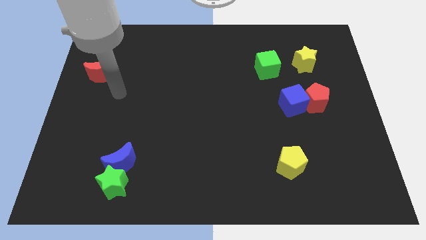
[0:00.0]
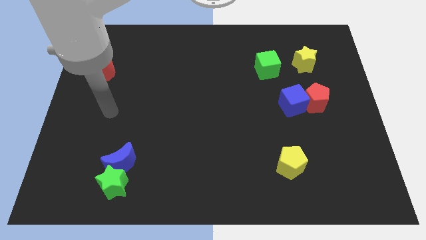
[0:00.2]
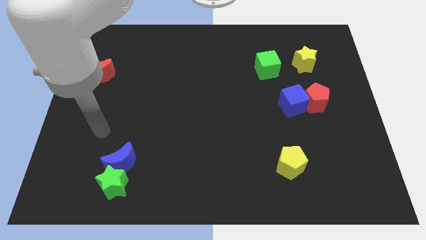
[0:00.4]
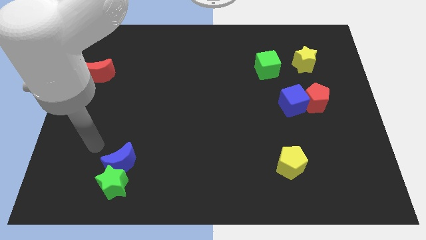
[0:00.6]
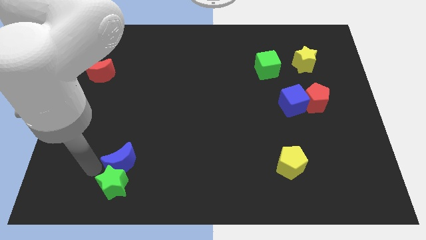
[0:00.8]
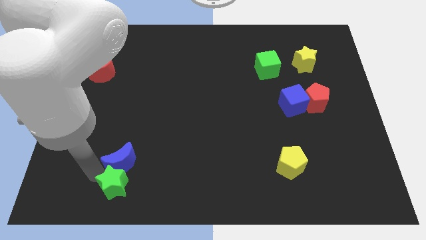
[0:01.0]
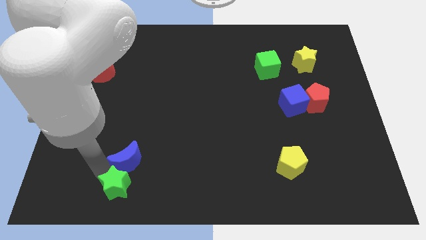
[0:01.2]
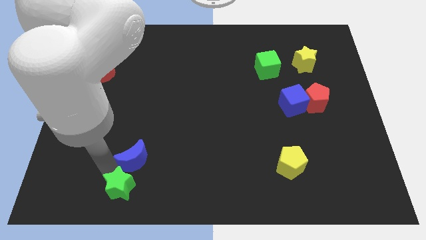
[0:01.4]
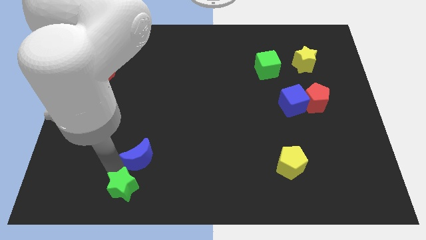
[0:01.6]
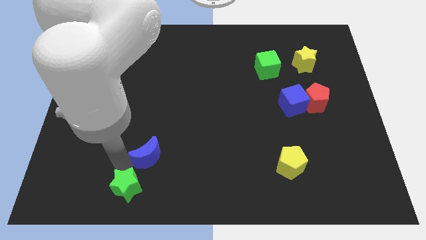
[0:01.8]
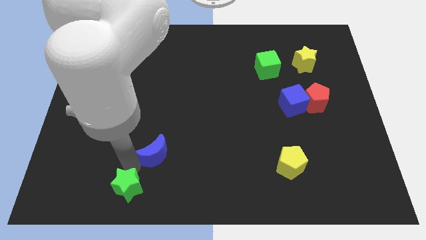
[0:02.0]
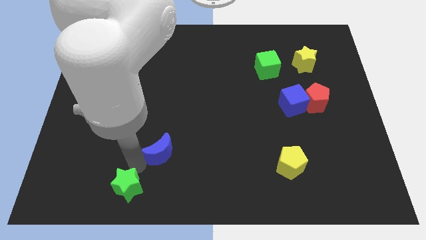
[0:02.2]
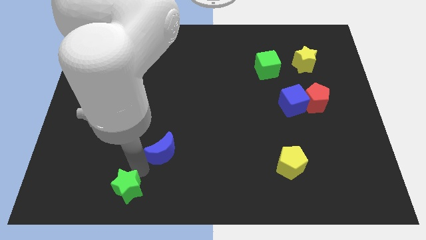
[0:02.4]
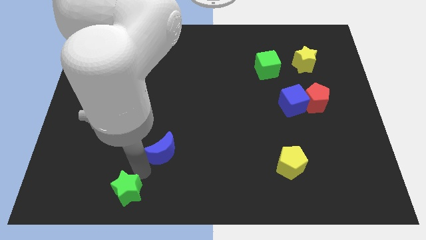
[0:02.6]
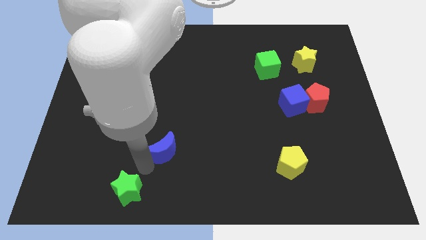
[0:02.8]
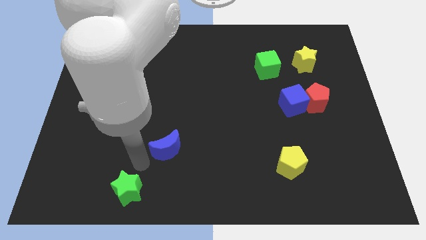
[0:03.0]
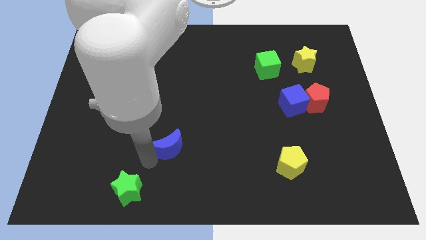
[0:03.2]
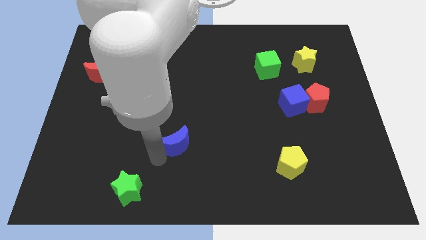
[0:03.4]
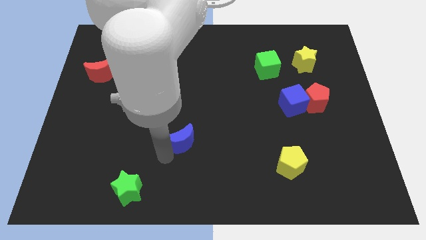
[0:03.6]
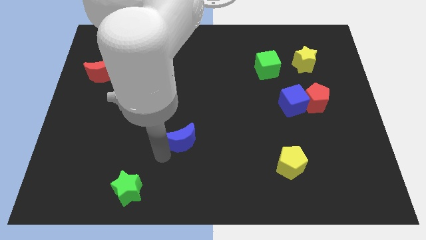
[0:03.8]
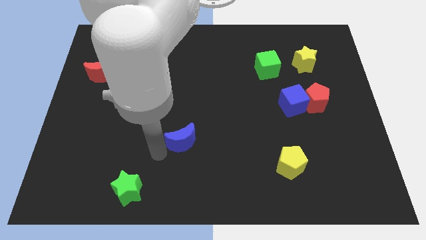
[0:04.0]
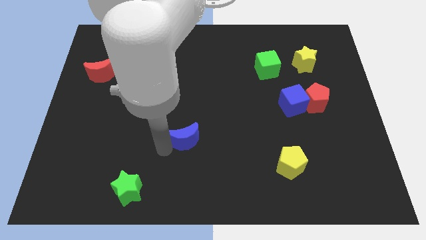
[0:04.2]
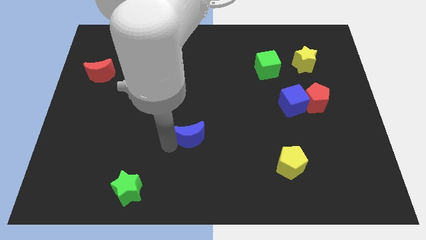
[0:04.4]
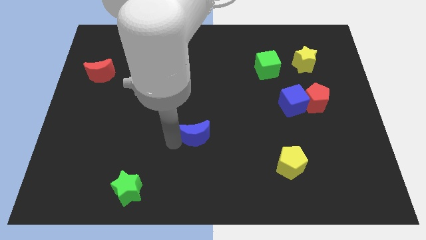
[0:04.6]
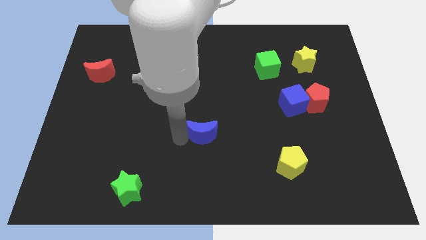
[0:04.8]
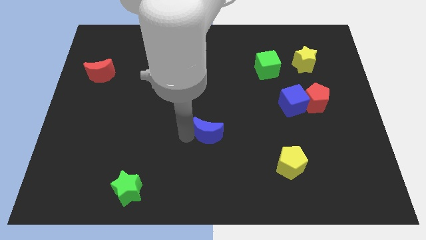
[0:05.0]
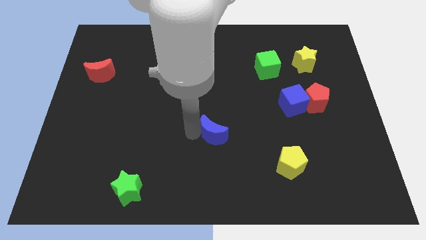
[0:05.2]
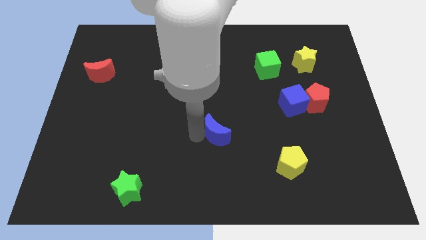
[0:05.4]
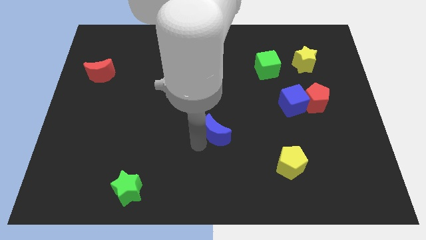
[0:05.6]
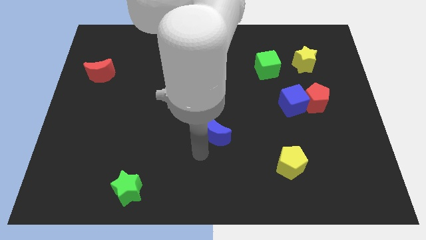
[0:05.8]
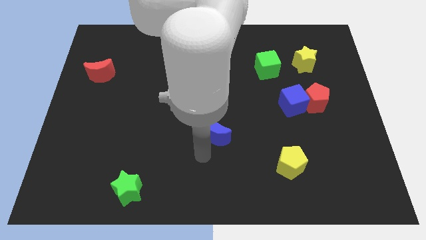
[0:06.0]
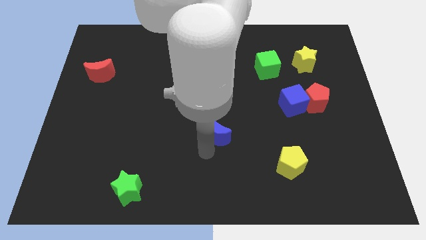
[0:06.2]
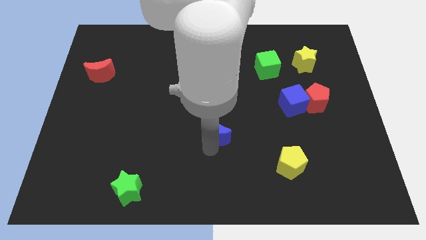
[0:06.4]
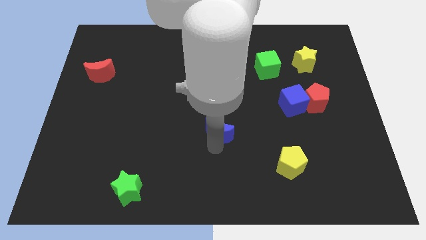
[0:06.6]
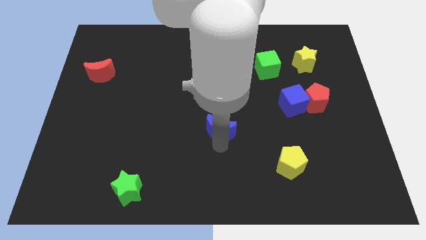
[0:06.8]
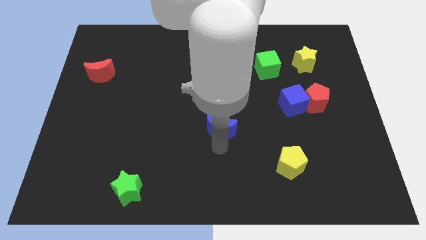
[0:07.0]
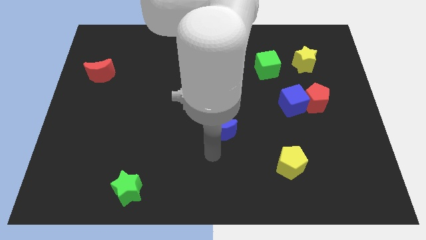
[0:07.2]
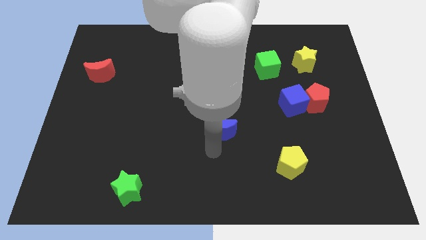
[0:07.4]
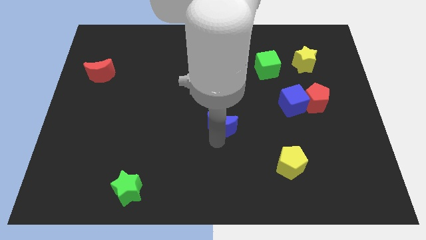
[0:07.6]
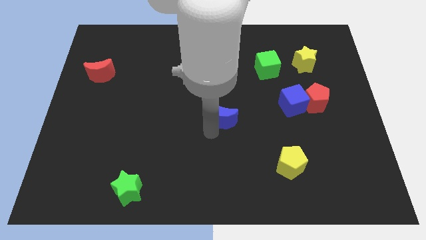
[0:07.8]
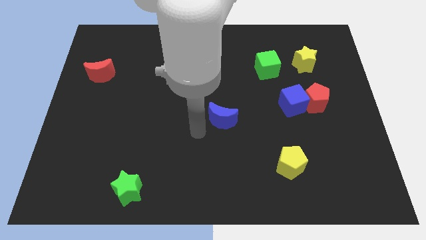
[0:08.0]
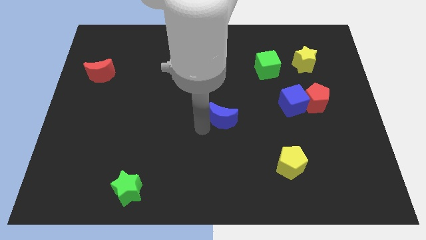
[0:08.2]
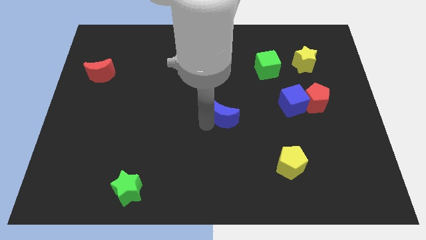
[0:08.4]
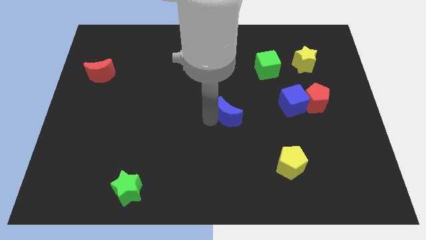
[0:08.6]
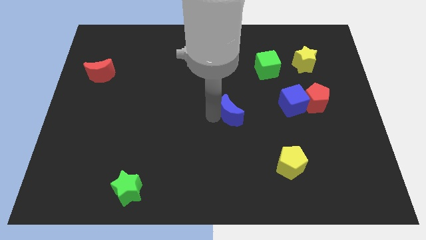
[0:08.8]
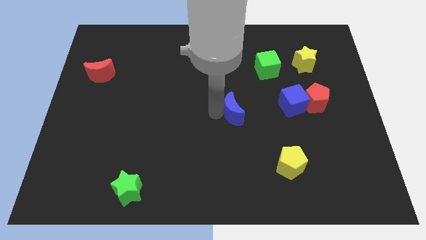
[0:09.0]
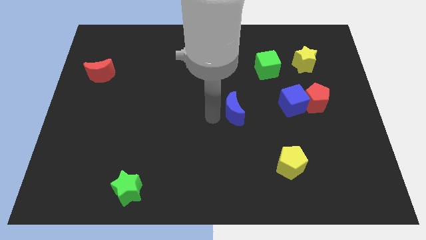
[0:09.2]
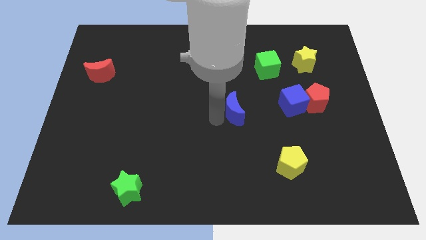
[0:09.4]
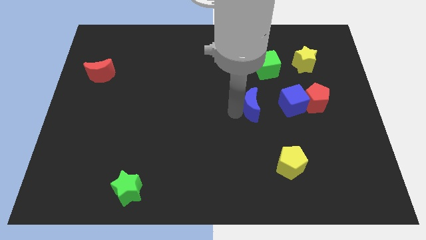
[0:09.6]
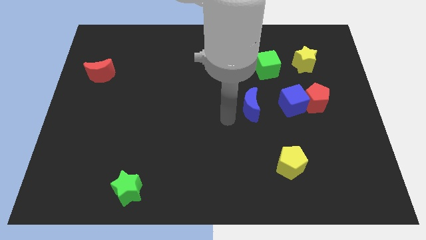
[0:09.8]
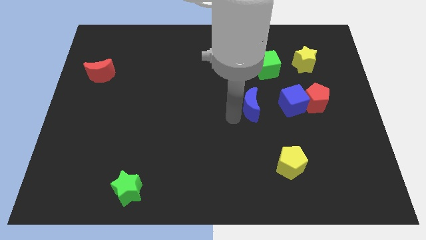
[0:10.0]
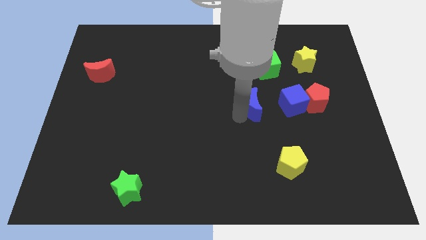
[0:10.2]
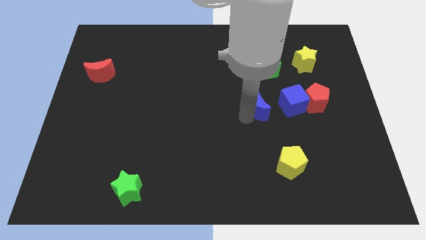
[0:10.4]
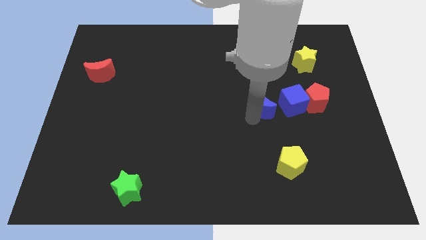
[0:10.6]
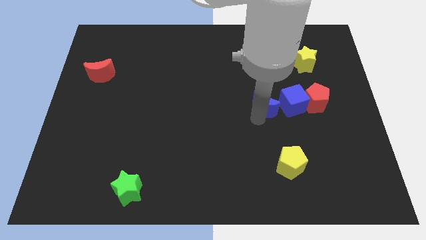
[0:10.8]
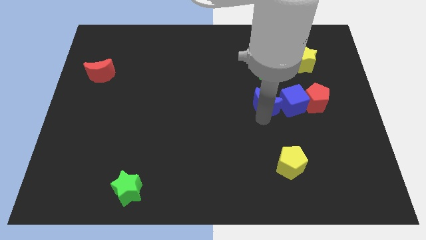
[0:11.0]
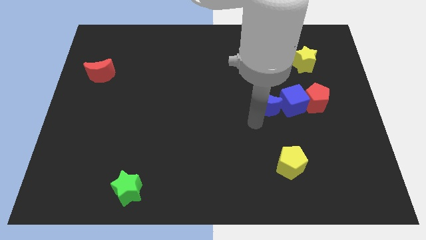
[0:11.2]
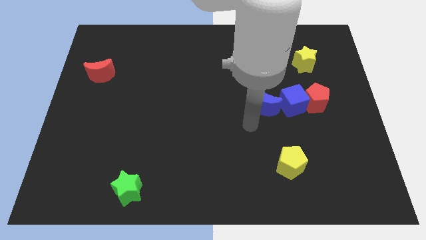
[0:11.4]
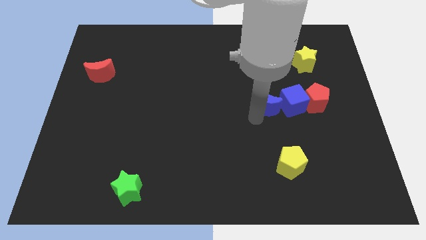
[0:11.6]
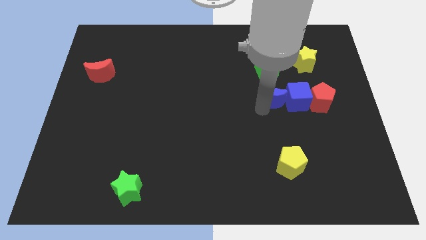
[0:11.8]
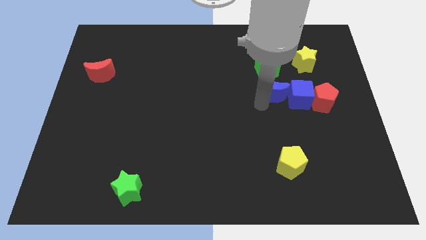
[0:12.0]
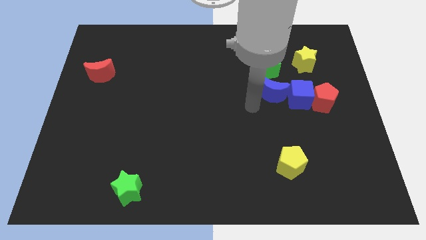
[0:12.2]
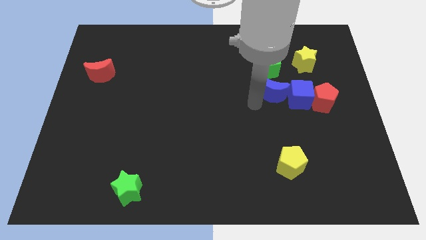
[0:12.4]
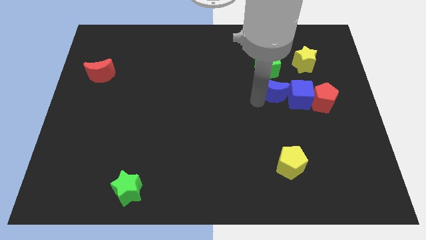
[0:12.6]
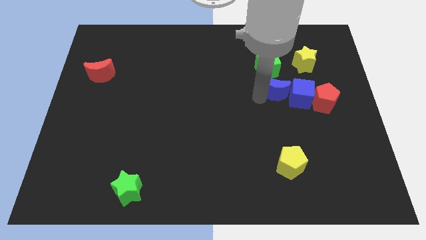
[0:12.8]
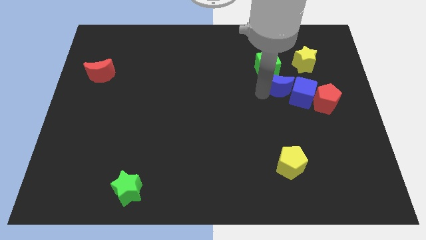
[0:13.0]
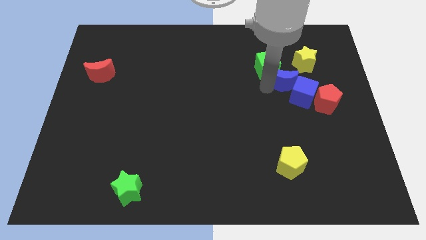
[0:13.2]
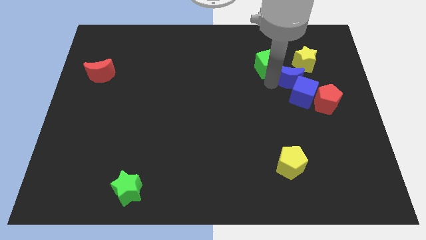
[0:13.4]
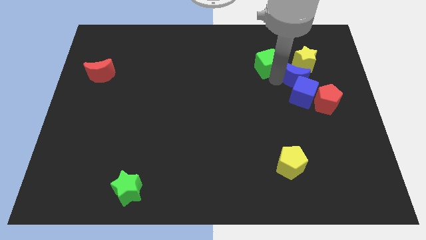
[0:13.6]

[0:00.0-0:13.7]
push the blue moon to the top right of the blue cube

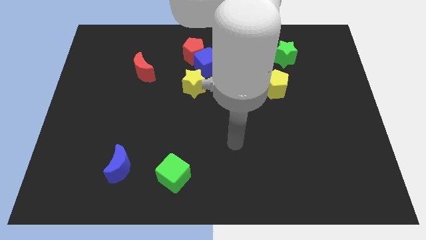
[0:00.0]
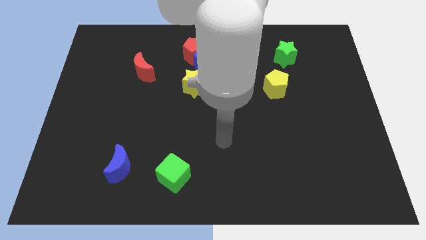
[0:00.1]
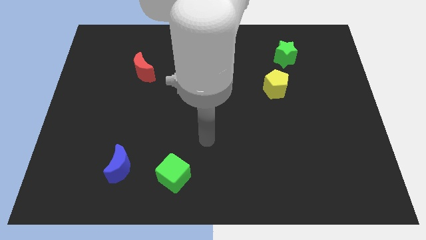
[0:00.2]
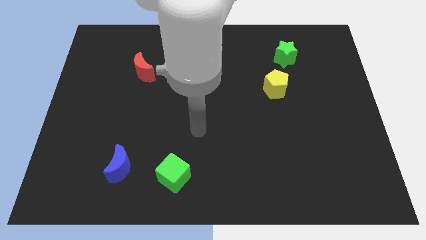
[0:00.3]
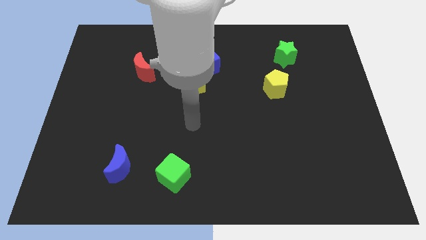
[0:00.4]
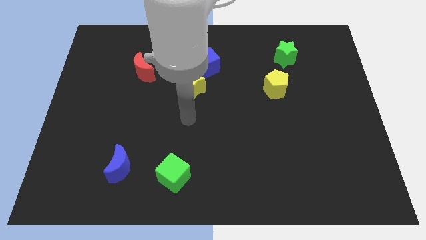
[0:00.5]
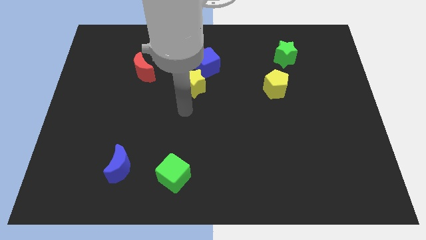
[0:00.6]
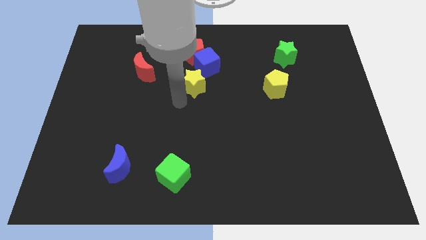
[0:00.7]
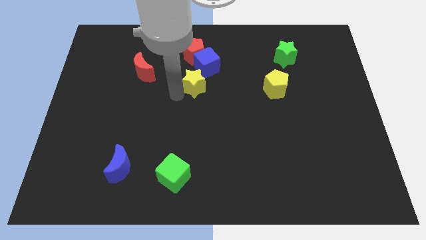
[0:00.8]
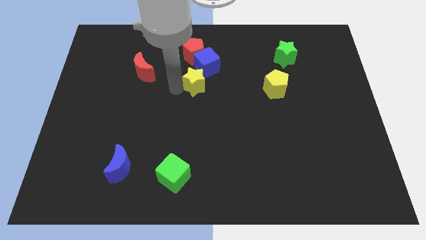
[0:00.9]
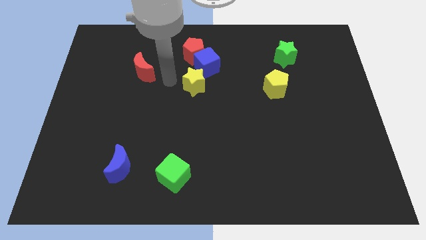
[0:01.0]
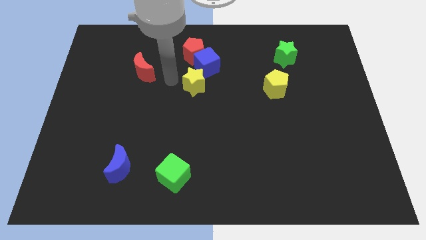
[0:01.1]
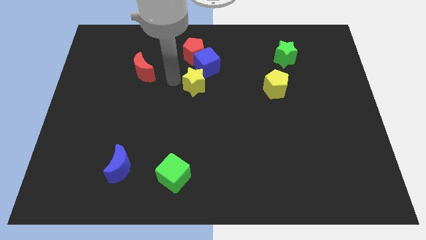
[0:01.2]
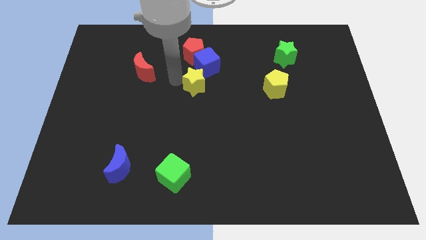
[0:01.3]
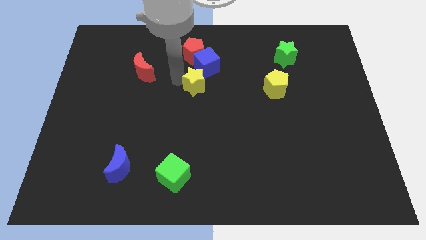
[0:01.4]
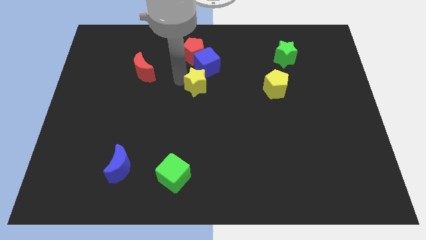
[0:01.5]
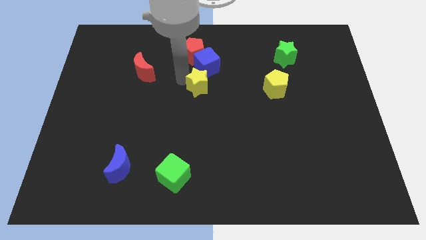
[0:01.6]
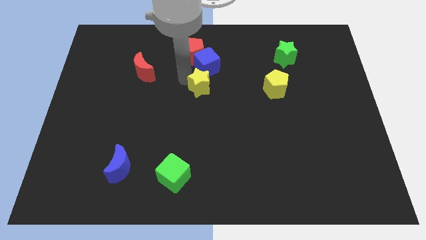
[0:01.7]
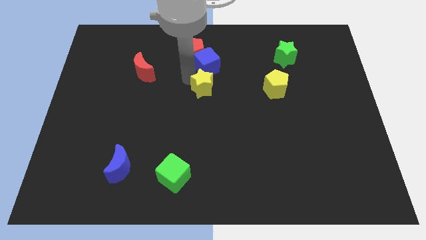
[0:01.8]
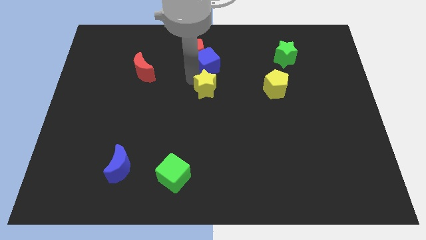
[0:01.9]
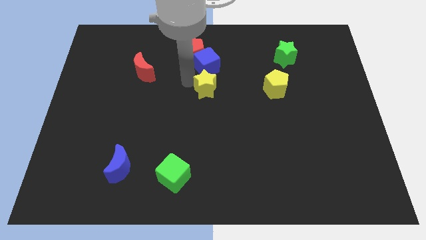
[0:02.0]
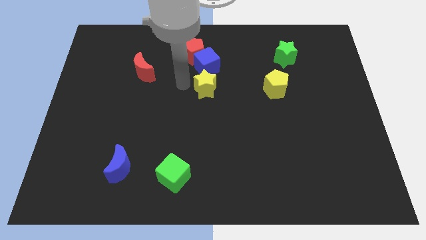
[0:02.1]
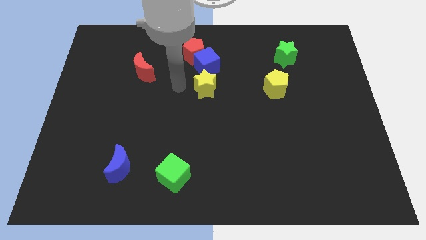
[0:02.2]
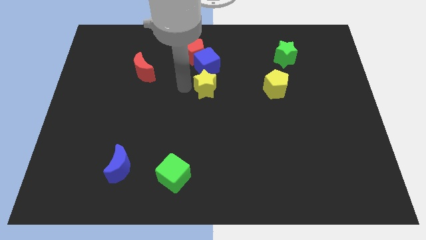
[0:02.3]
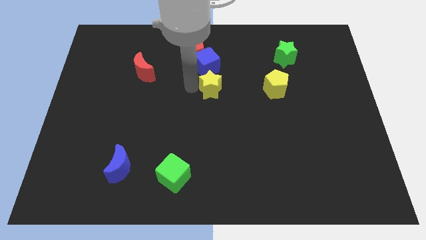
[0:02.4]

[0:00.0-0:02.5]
slide the yellow star to the left of the yellow pentagon
